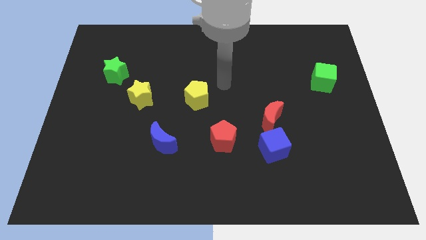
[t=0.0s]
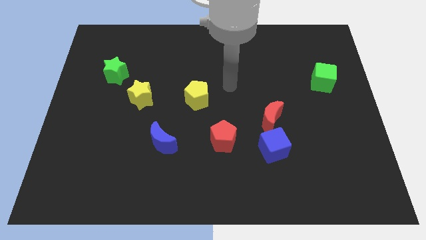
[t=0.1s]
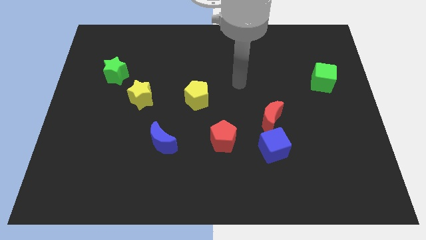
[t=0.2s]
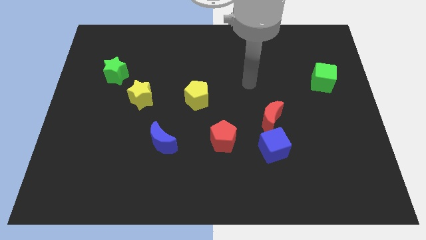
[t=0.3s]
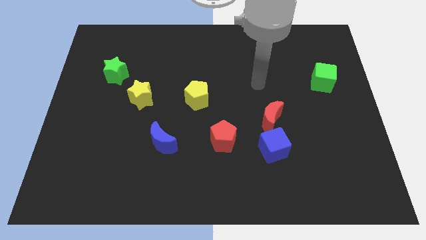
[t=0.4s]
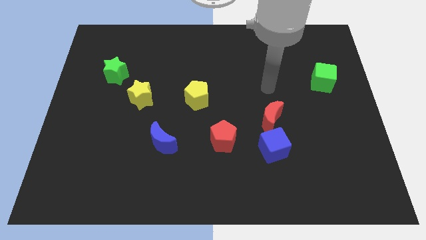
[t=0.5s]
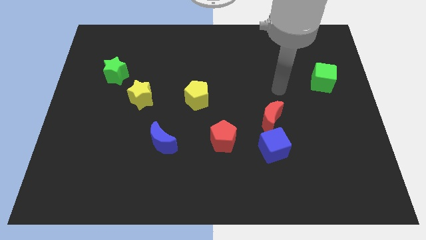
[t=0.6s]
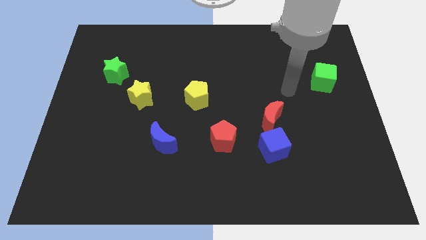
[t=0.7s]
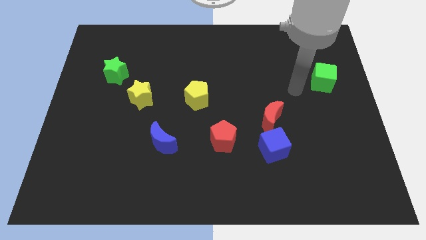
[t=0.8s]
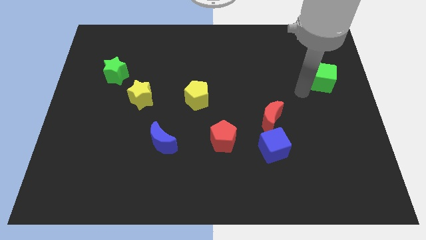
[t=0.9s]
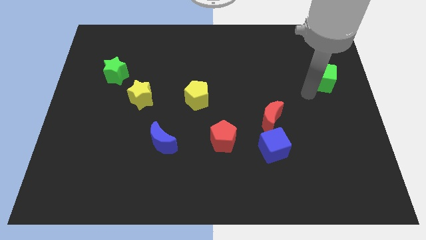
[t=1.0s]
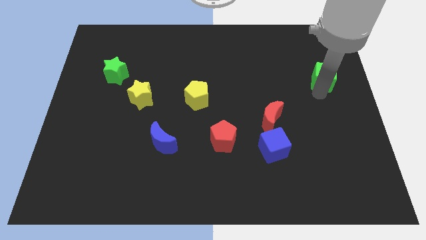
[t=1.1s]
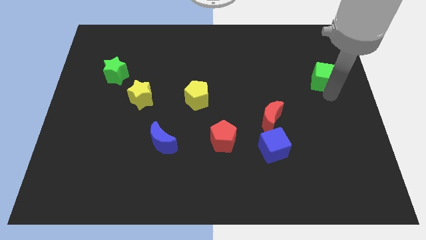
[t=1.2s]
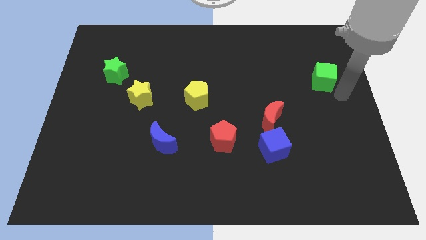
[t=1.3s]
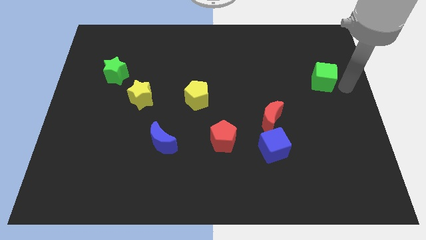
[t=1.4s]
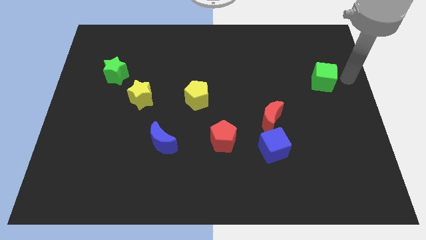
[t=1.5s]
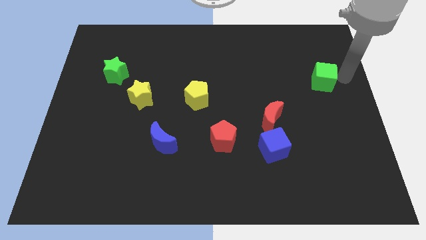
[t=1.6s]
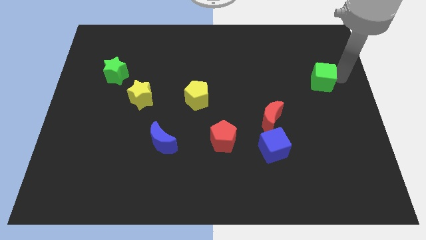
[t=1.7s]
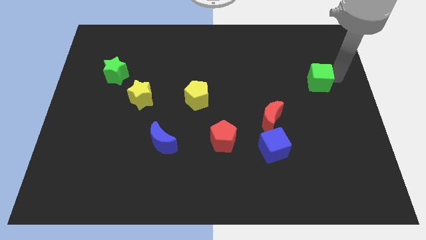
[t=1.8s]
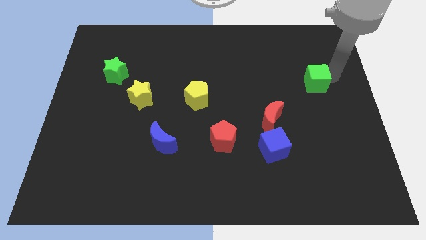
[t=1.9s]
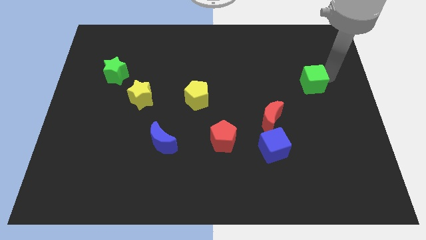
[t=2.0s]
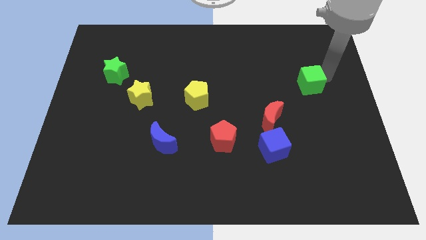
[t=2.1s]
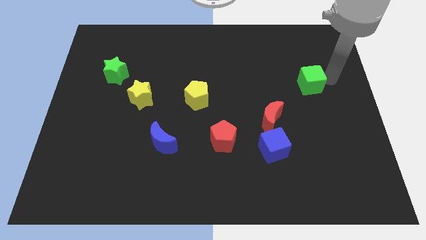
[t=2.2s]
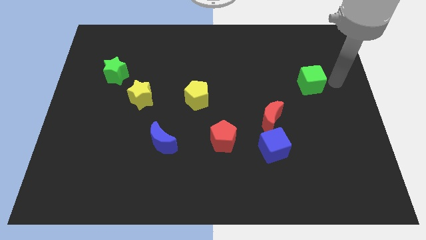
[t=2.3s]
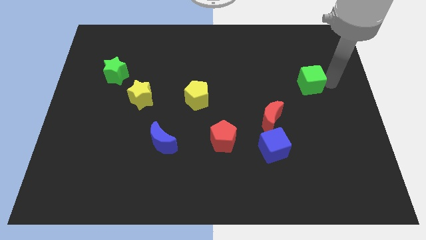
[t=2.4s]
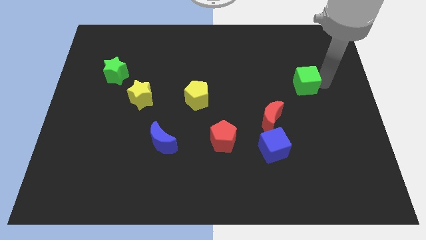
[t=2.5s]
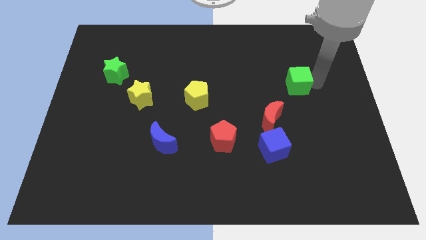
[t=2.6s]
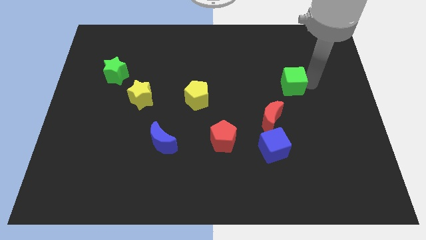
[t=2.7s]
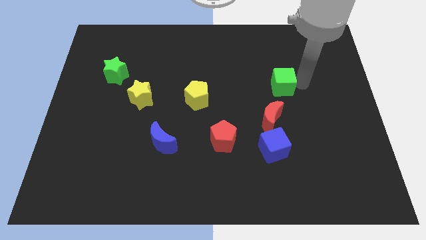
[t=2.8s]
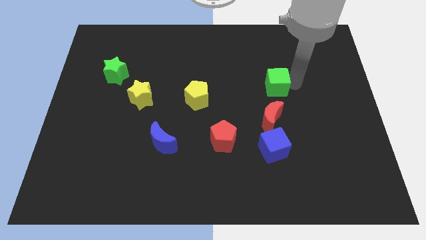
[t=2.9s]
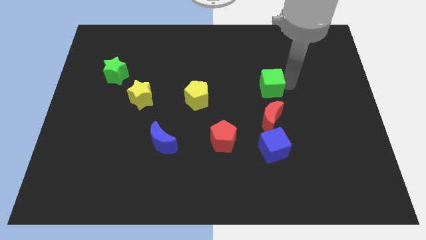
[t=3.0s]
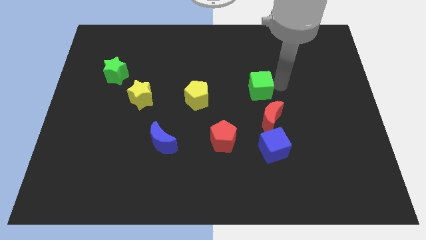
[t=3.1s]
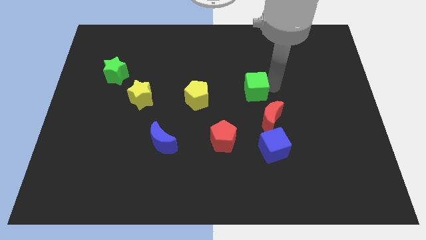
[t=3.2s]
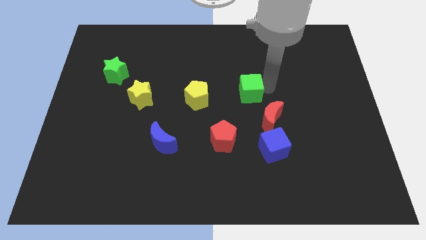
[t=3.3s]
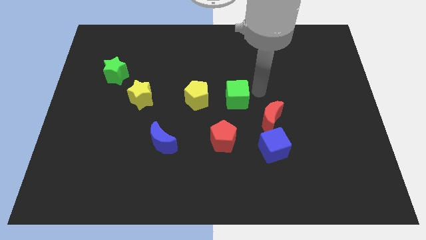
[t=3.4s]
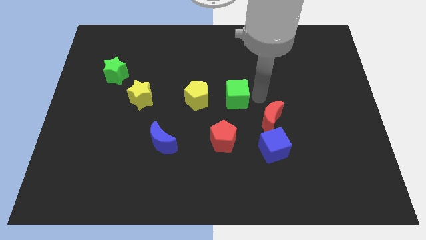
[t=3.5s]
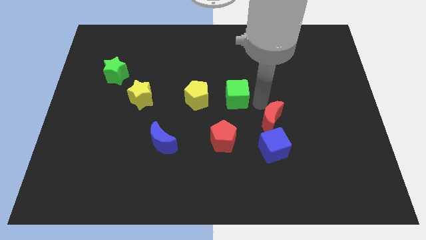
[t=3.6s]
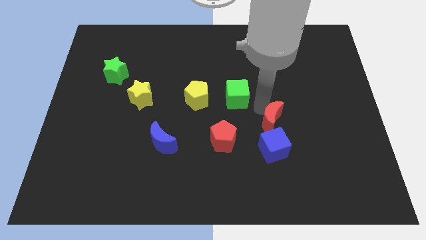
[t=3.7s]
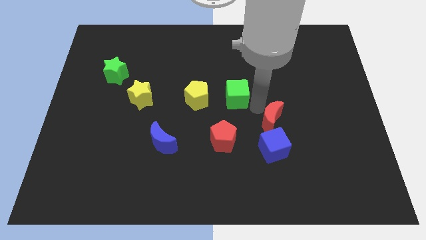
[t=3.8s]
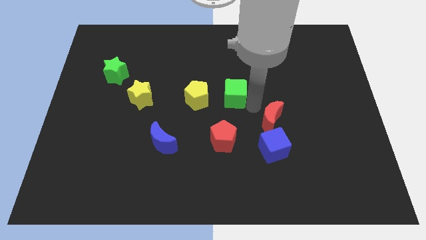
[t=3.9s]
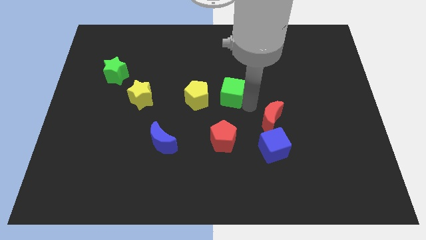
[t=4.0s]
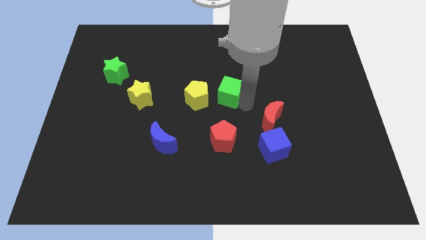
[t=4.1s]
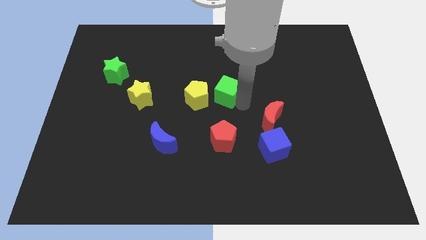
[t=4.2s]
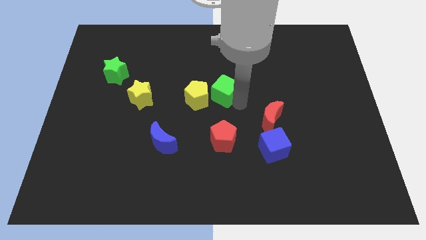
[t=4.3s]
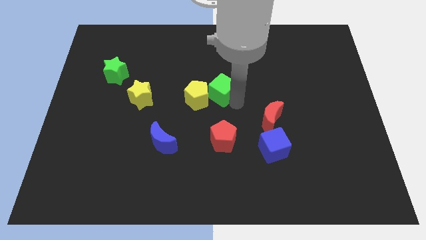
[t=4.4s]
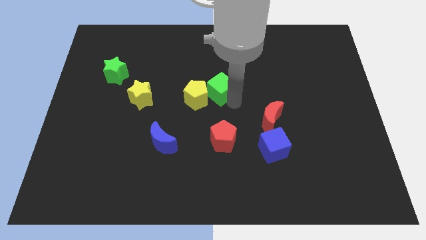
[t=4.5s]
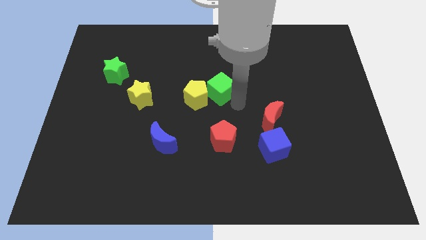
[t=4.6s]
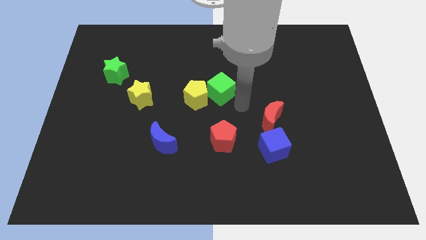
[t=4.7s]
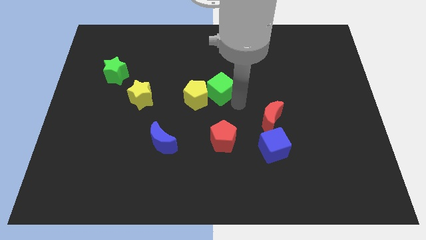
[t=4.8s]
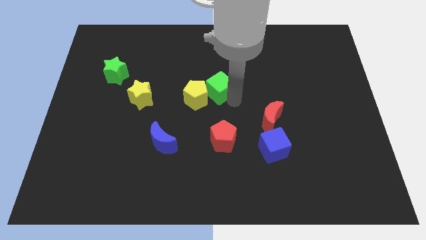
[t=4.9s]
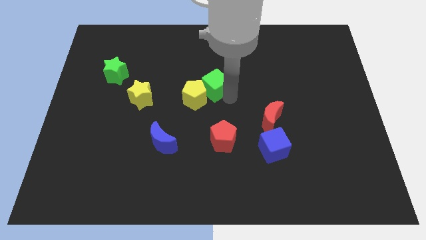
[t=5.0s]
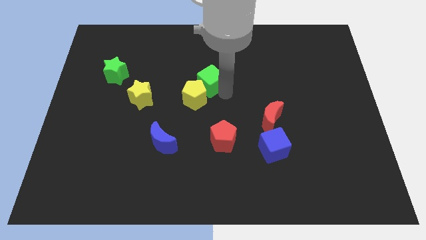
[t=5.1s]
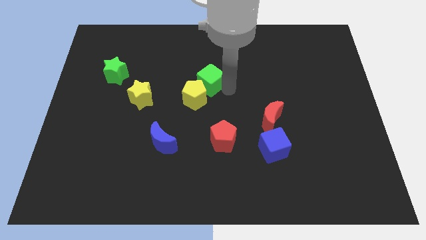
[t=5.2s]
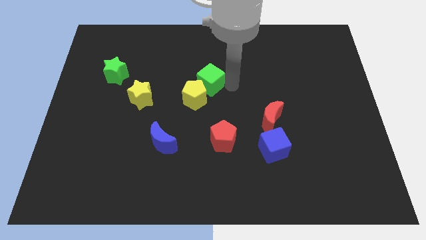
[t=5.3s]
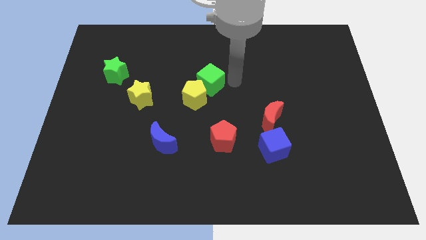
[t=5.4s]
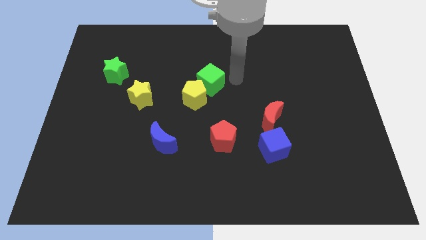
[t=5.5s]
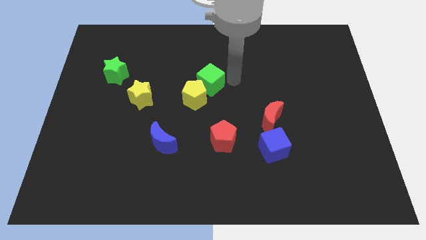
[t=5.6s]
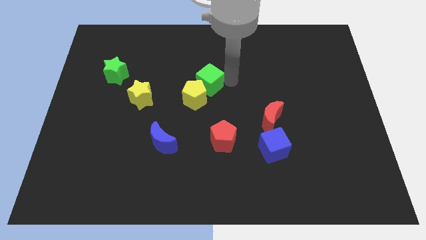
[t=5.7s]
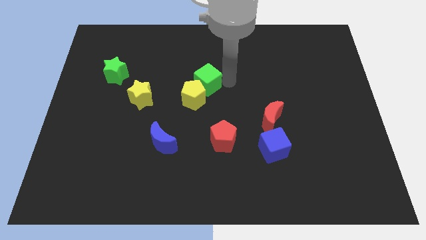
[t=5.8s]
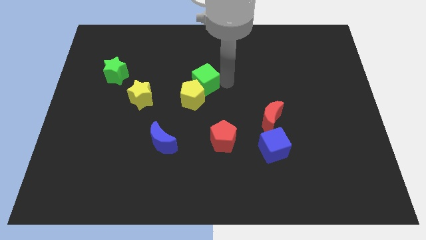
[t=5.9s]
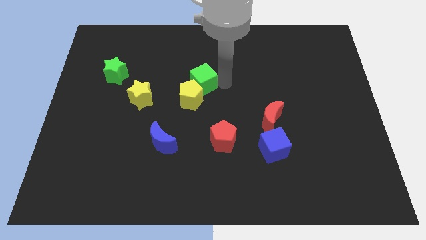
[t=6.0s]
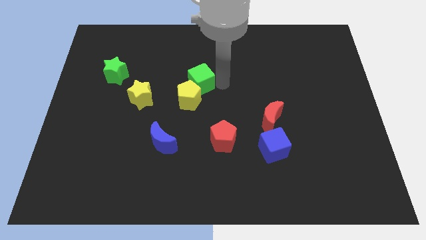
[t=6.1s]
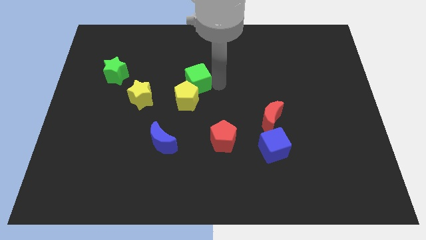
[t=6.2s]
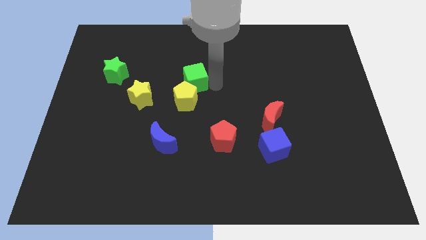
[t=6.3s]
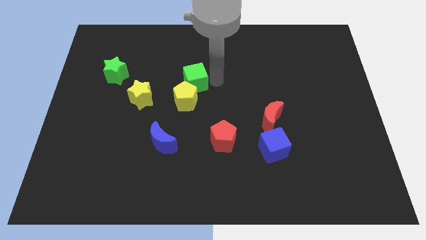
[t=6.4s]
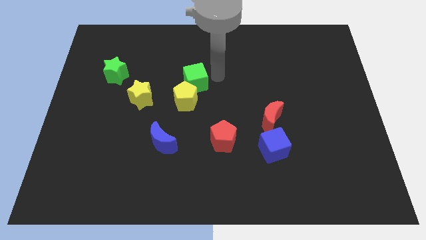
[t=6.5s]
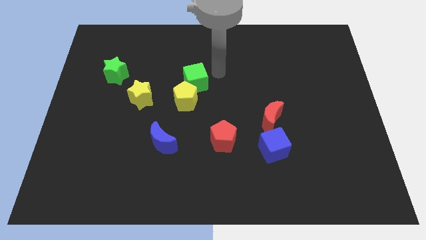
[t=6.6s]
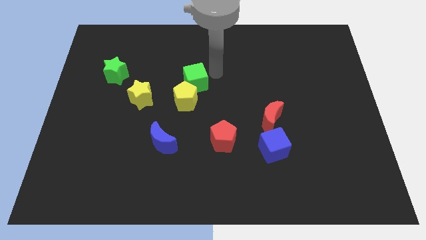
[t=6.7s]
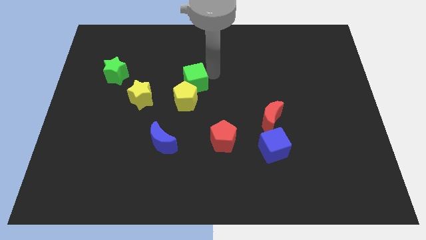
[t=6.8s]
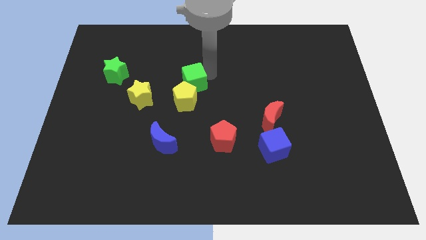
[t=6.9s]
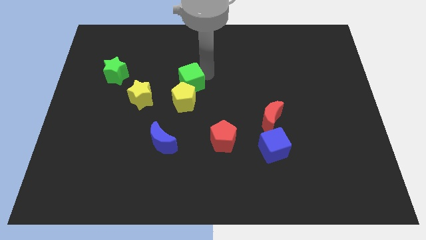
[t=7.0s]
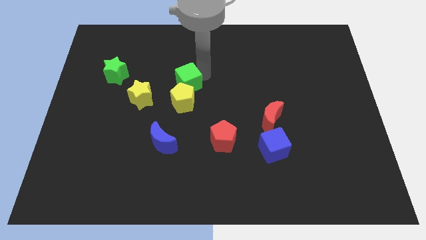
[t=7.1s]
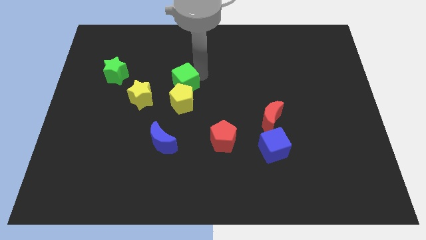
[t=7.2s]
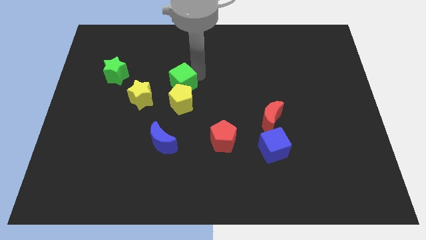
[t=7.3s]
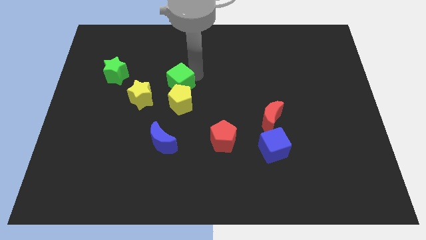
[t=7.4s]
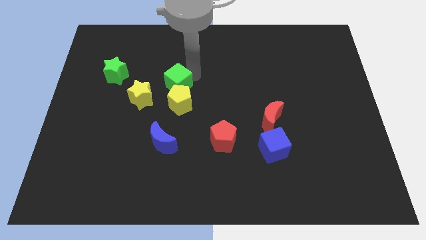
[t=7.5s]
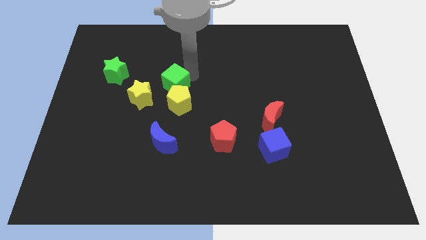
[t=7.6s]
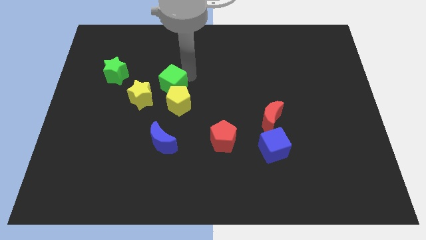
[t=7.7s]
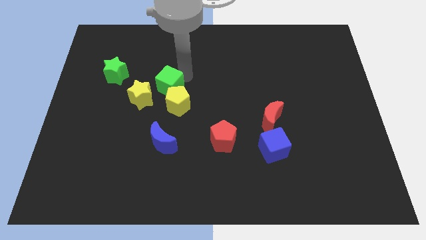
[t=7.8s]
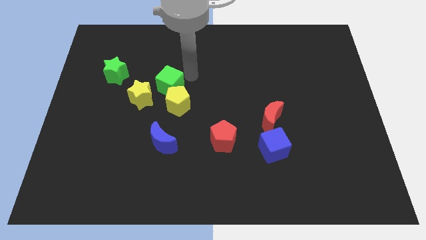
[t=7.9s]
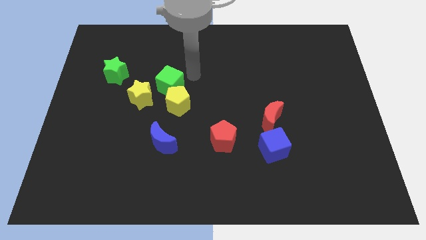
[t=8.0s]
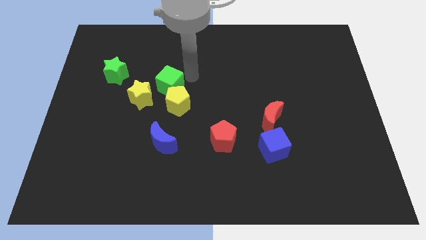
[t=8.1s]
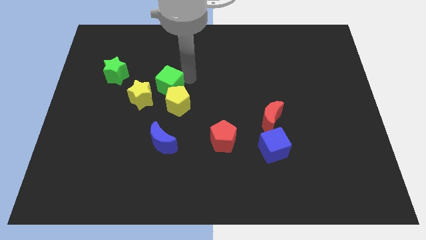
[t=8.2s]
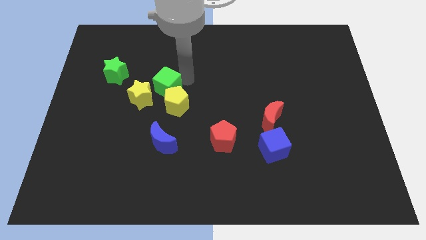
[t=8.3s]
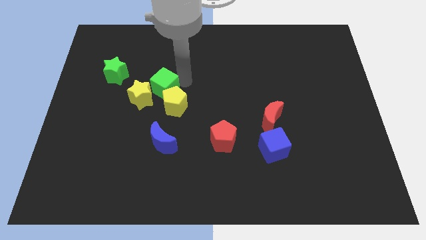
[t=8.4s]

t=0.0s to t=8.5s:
move the green cube close to the yellow star
